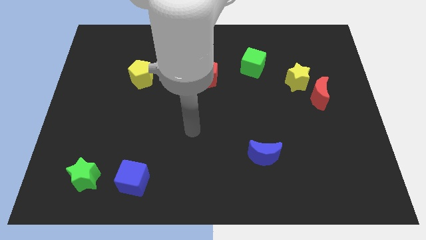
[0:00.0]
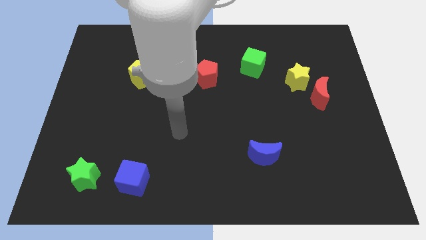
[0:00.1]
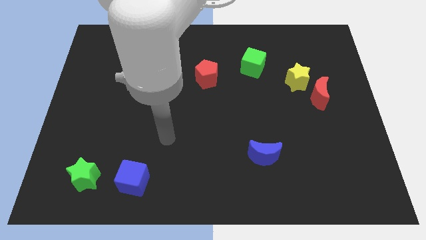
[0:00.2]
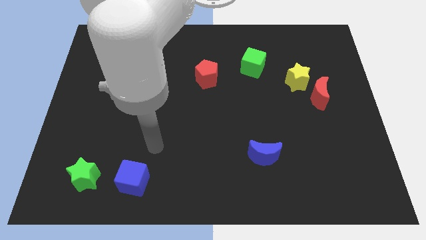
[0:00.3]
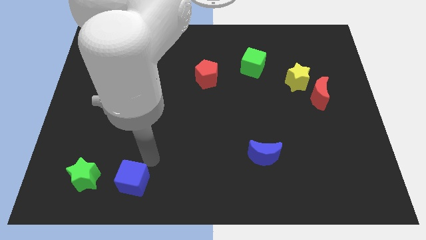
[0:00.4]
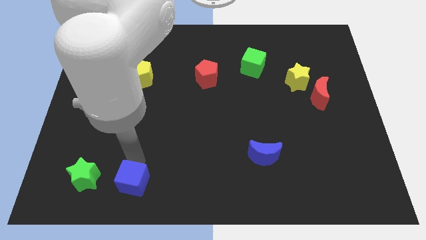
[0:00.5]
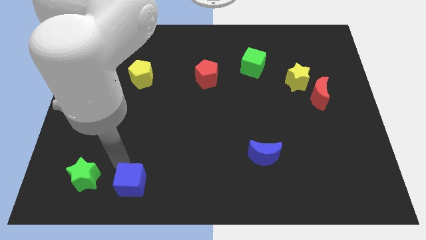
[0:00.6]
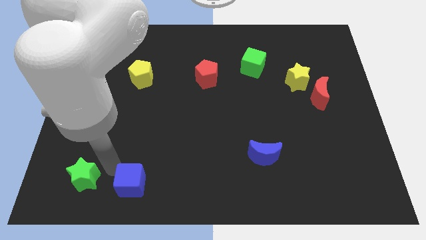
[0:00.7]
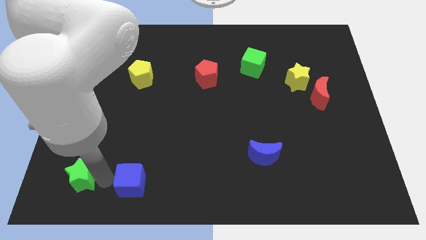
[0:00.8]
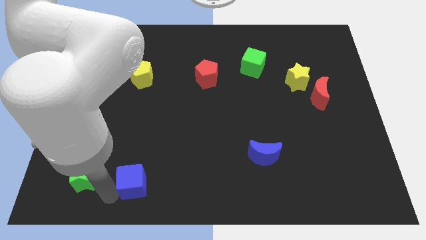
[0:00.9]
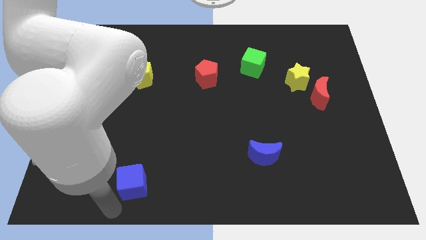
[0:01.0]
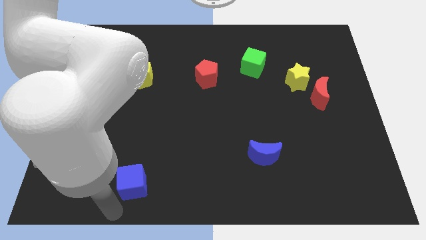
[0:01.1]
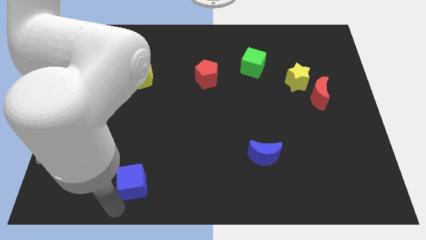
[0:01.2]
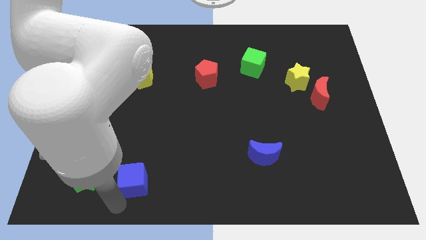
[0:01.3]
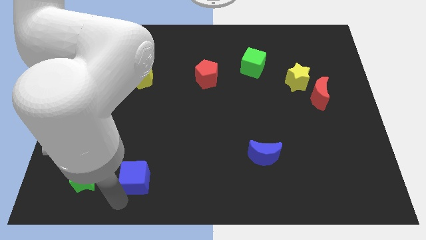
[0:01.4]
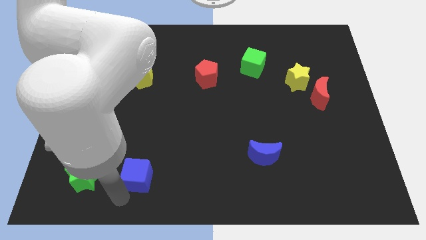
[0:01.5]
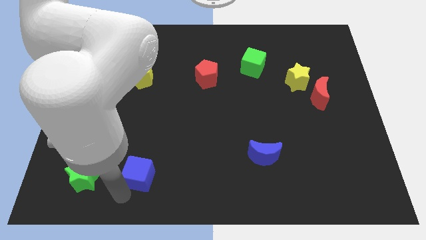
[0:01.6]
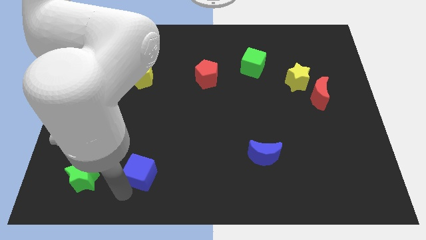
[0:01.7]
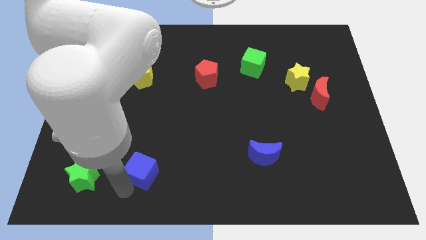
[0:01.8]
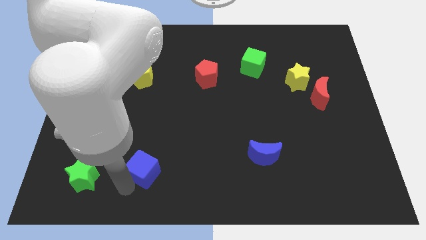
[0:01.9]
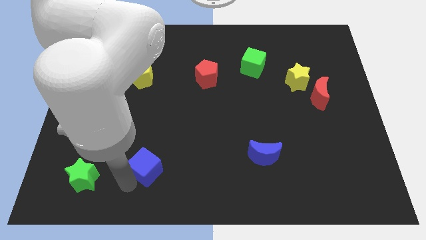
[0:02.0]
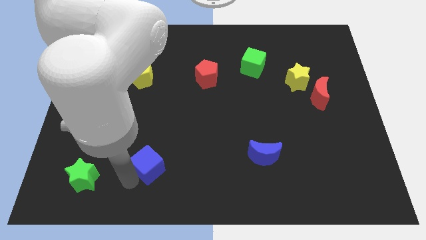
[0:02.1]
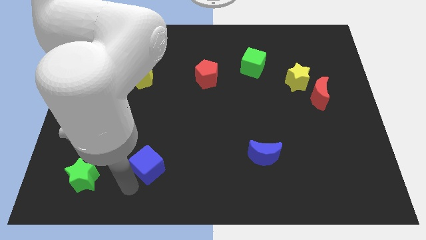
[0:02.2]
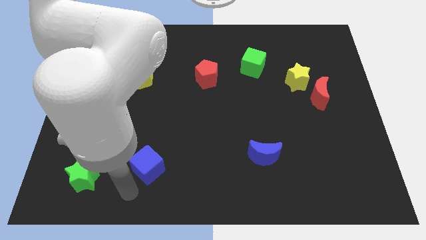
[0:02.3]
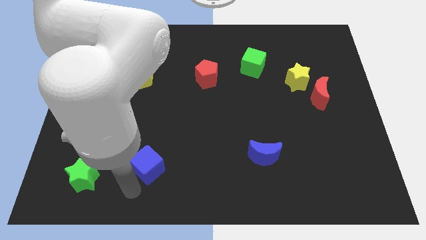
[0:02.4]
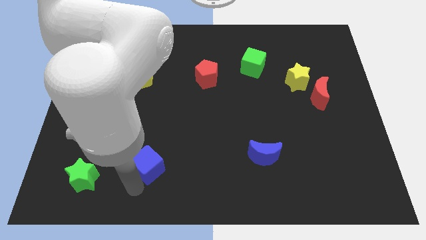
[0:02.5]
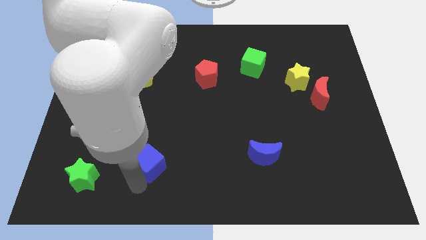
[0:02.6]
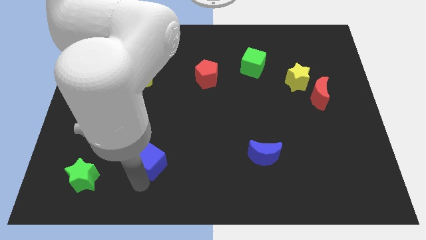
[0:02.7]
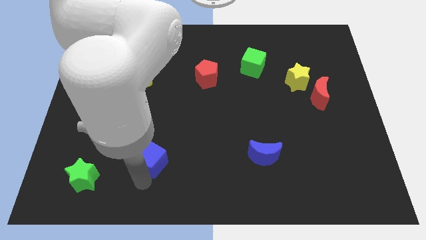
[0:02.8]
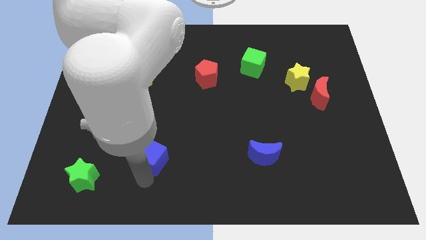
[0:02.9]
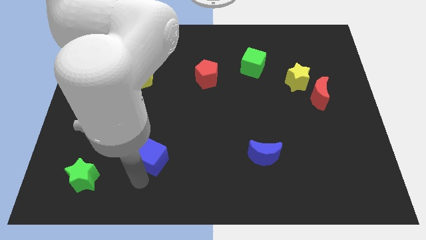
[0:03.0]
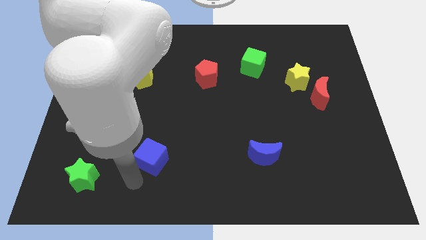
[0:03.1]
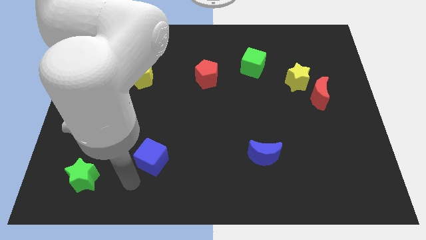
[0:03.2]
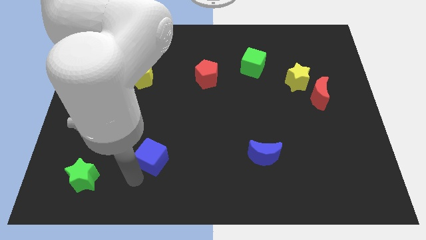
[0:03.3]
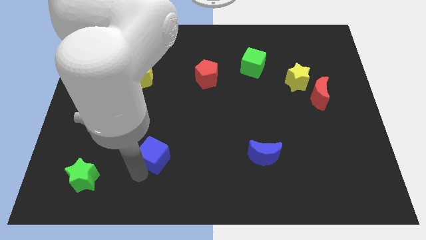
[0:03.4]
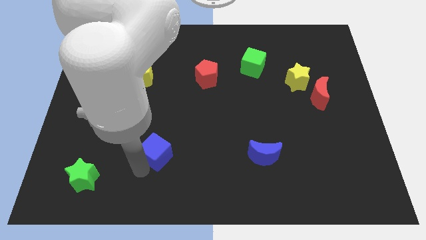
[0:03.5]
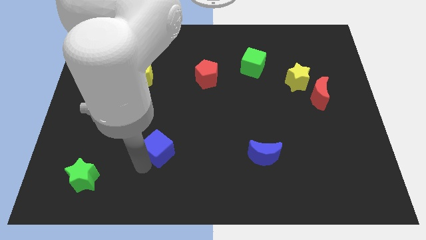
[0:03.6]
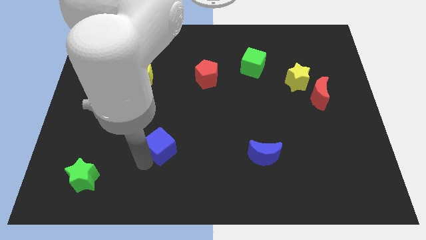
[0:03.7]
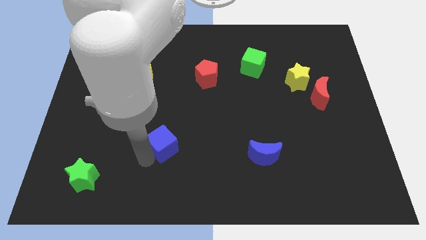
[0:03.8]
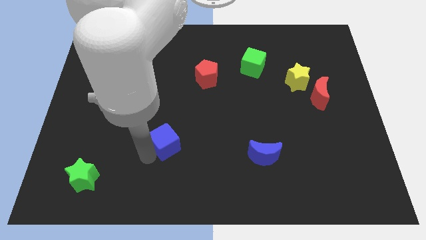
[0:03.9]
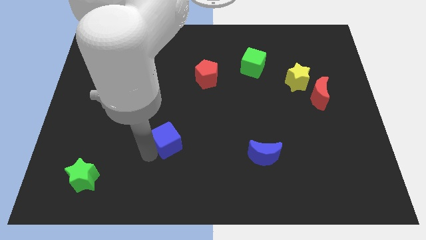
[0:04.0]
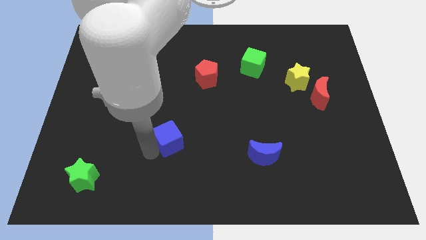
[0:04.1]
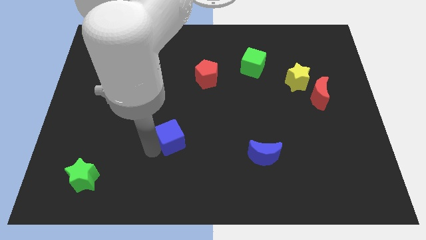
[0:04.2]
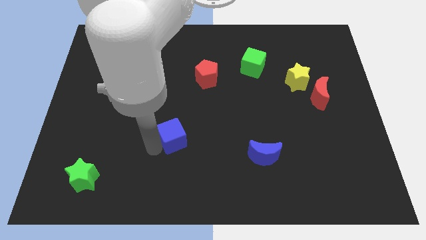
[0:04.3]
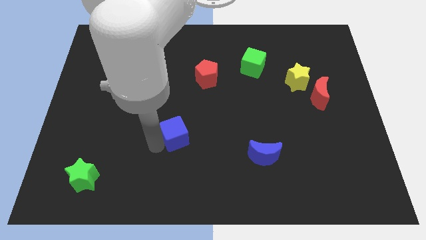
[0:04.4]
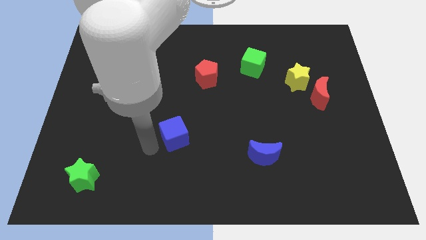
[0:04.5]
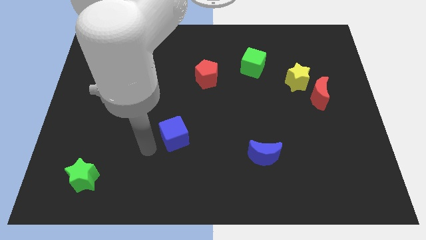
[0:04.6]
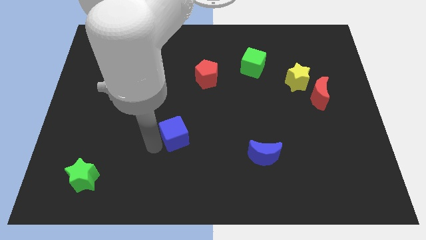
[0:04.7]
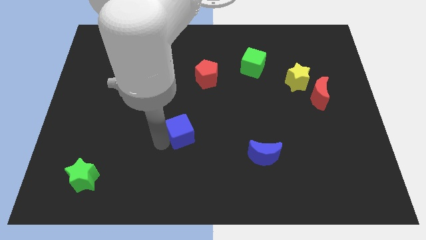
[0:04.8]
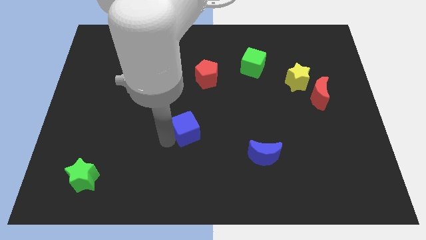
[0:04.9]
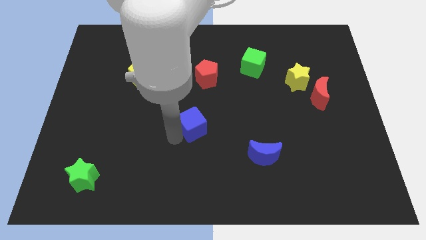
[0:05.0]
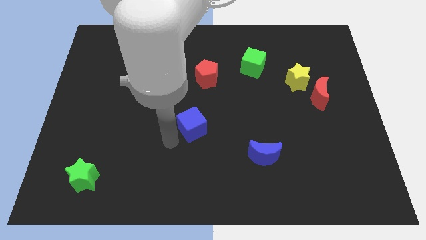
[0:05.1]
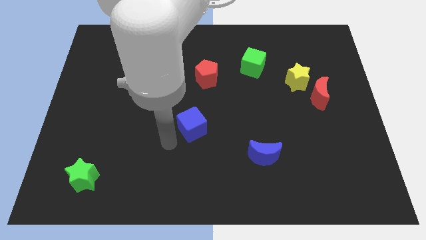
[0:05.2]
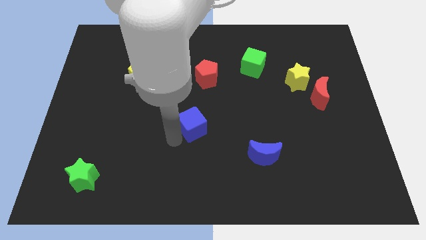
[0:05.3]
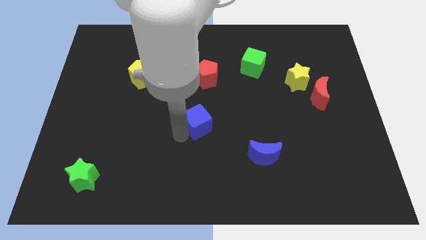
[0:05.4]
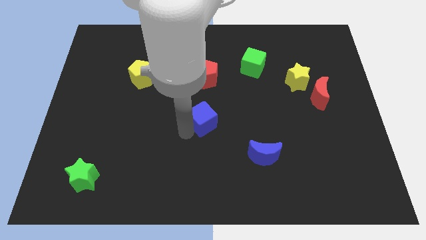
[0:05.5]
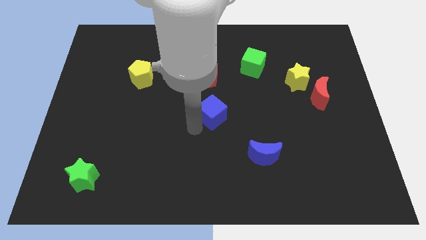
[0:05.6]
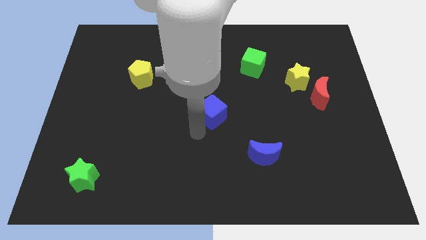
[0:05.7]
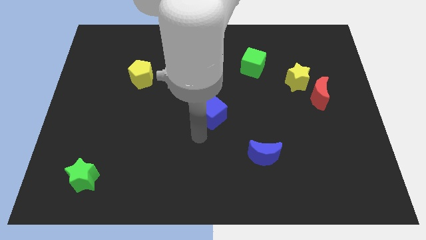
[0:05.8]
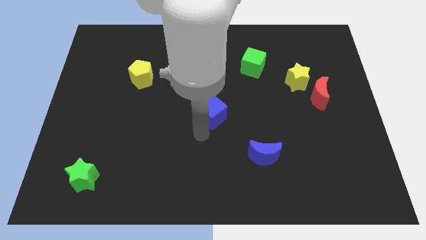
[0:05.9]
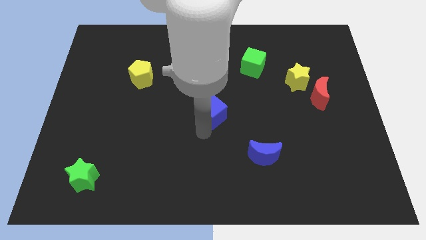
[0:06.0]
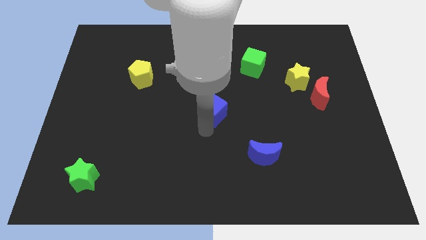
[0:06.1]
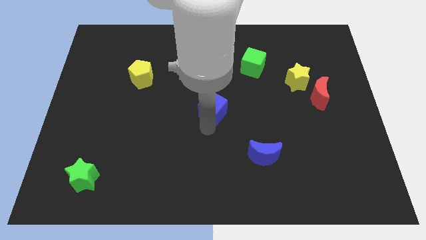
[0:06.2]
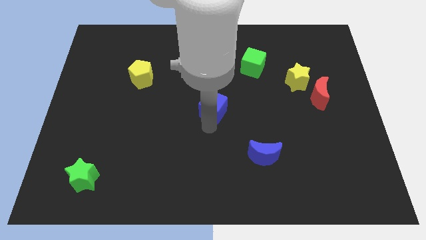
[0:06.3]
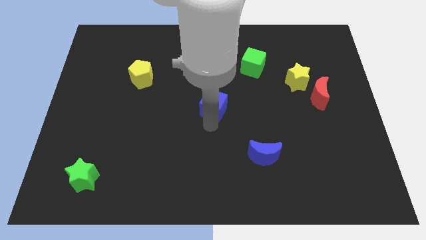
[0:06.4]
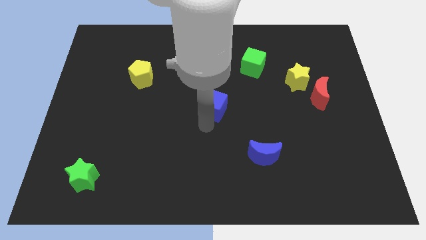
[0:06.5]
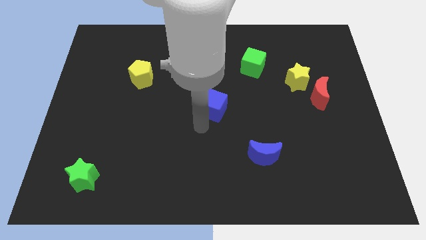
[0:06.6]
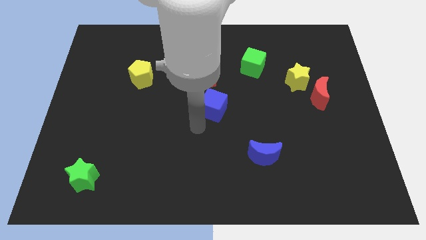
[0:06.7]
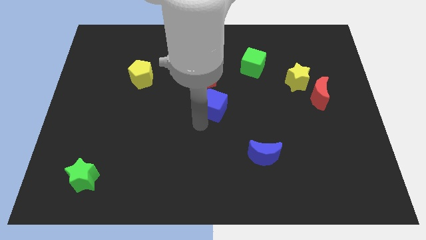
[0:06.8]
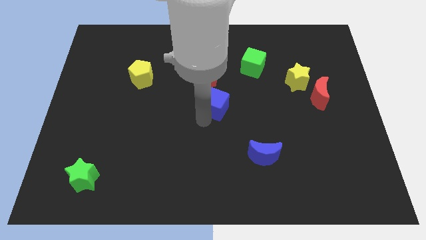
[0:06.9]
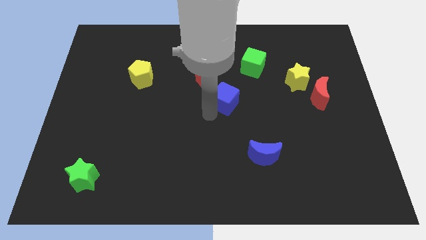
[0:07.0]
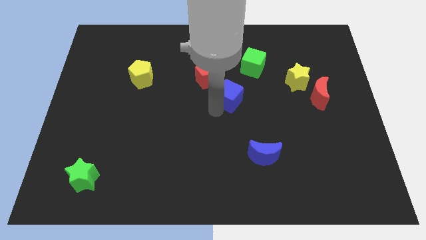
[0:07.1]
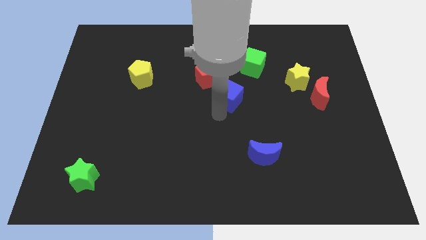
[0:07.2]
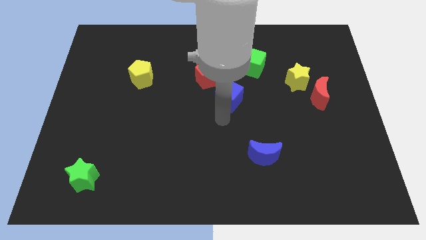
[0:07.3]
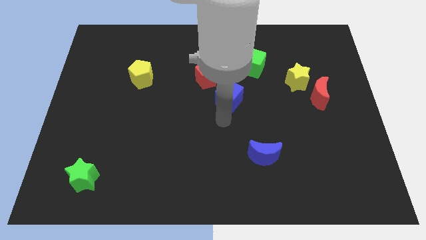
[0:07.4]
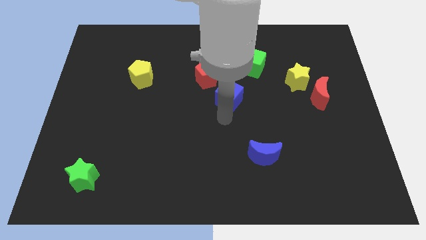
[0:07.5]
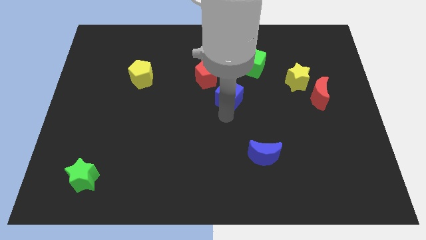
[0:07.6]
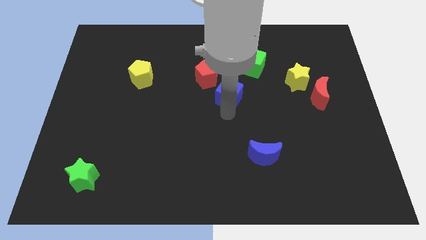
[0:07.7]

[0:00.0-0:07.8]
slide the blue cube to the bottom left side of the green cube
